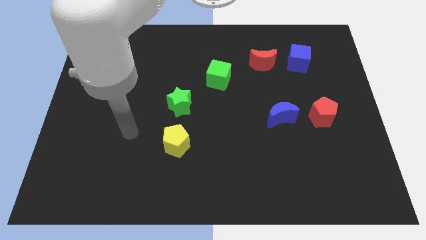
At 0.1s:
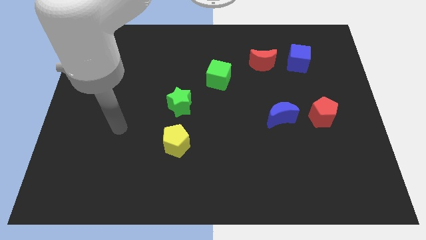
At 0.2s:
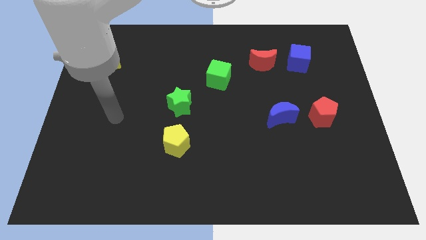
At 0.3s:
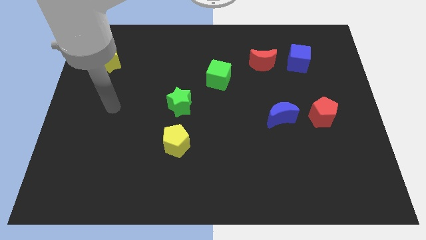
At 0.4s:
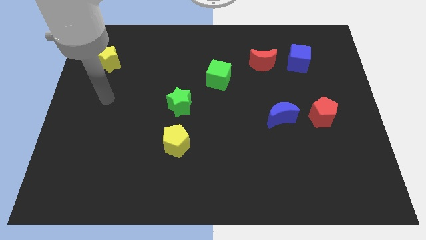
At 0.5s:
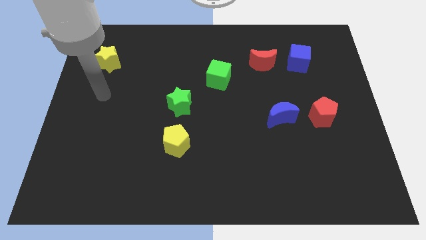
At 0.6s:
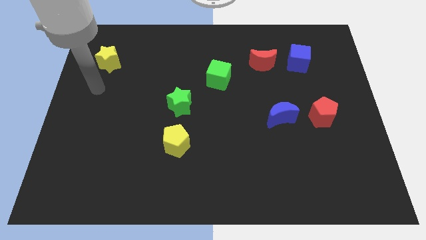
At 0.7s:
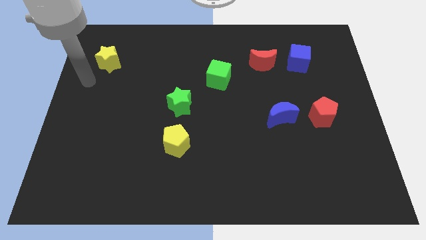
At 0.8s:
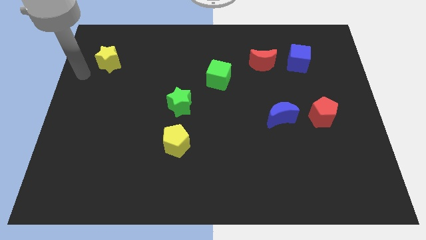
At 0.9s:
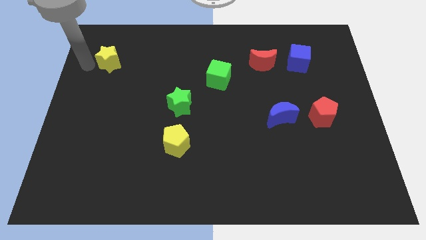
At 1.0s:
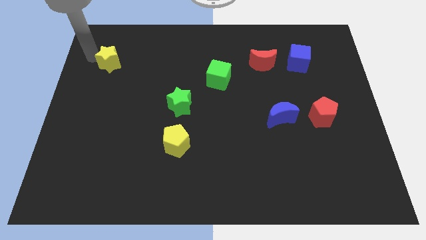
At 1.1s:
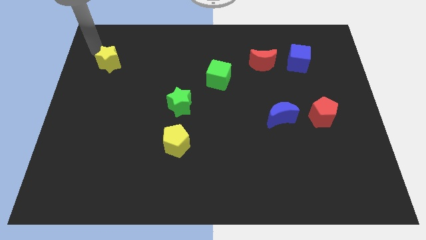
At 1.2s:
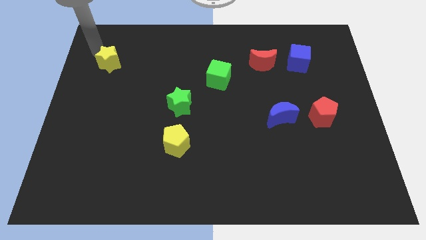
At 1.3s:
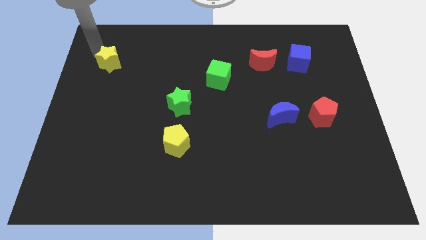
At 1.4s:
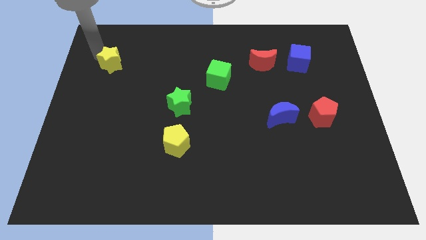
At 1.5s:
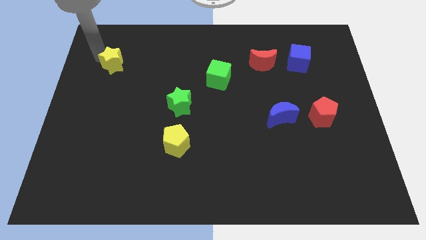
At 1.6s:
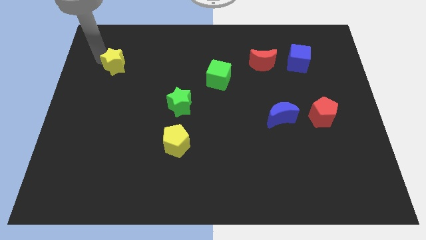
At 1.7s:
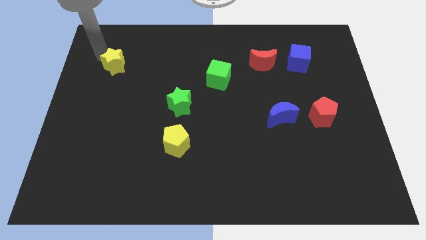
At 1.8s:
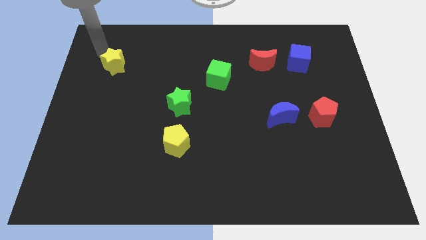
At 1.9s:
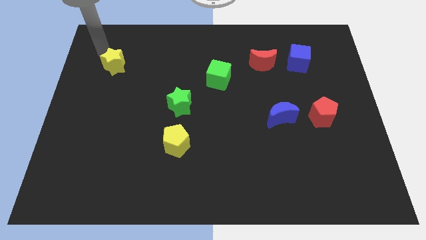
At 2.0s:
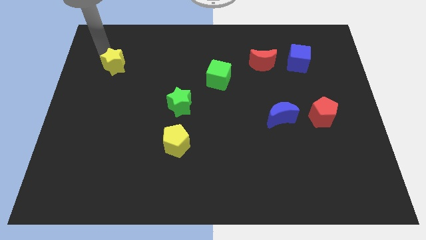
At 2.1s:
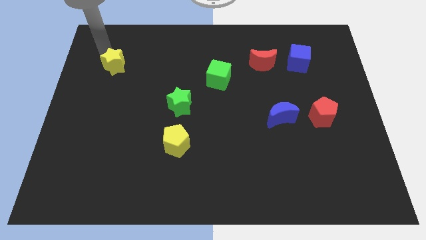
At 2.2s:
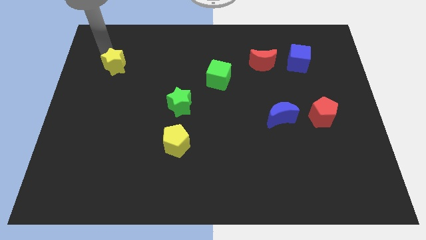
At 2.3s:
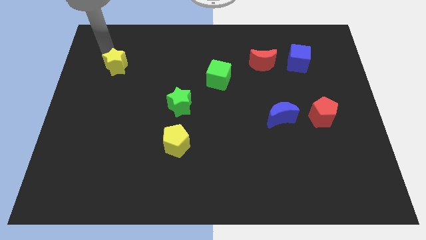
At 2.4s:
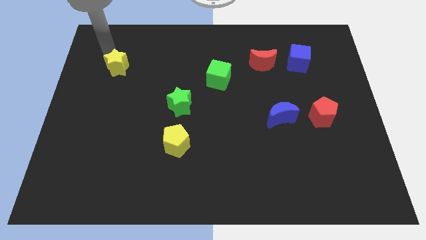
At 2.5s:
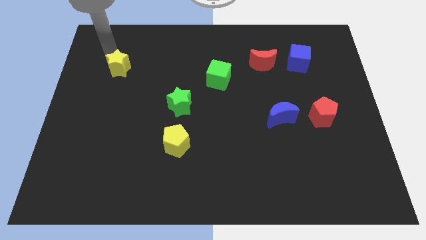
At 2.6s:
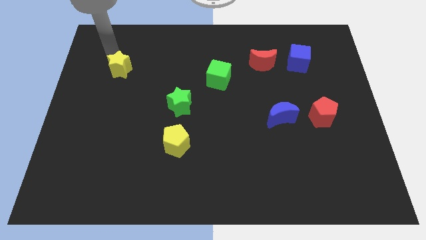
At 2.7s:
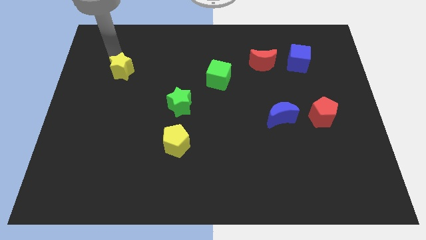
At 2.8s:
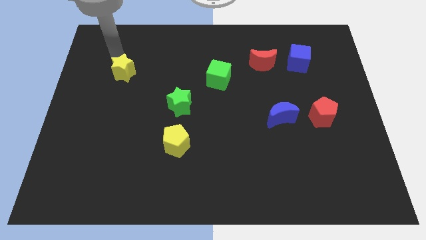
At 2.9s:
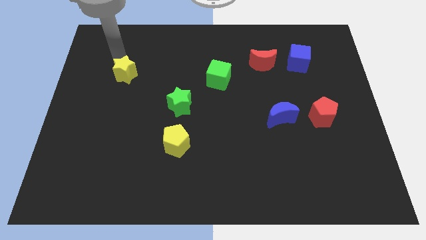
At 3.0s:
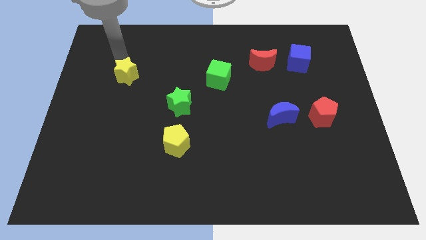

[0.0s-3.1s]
push the yellow star diagonally down and to the right a bit

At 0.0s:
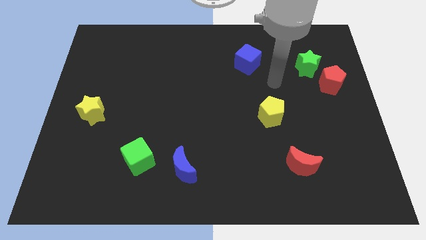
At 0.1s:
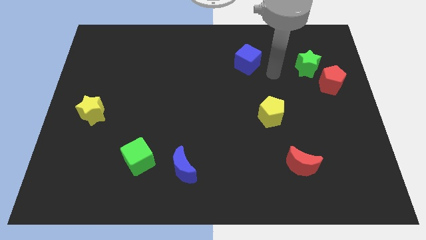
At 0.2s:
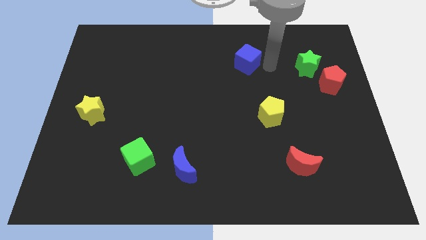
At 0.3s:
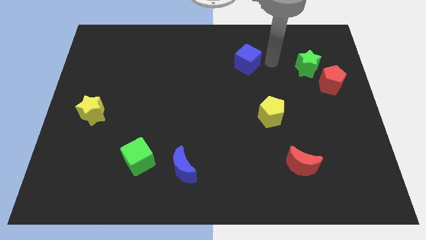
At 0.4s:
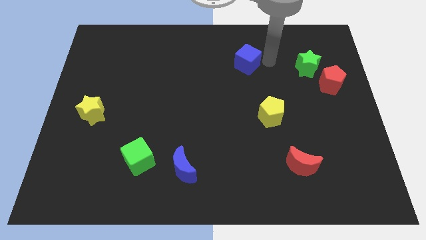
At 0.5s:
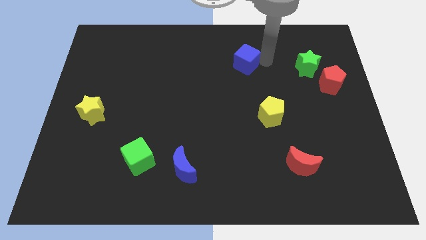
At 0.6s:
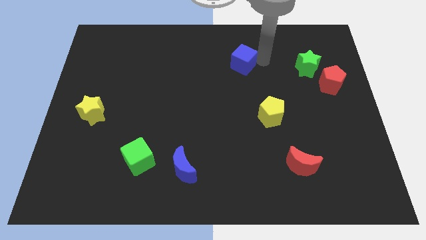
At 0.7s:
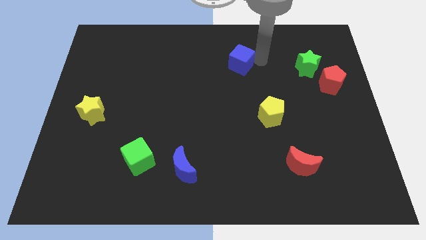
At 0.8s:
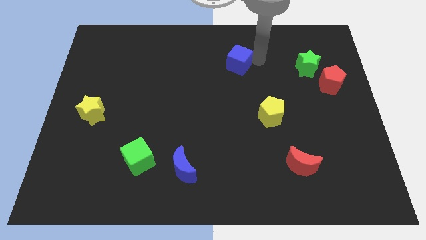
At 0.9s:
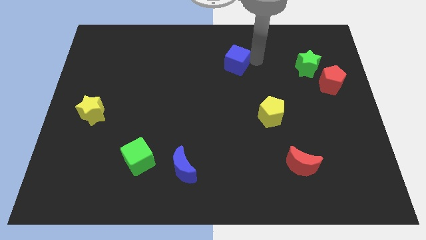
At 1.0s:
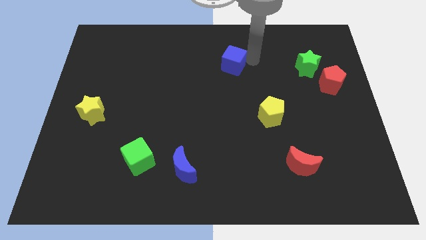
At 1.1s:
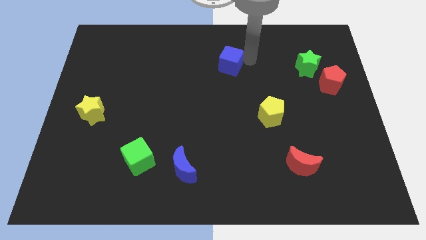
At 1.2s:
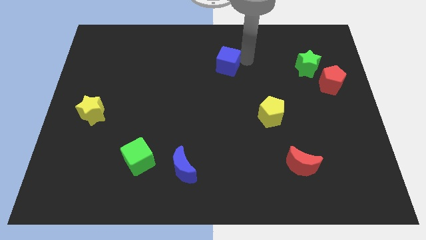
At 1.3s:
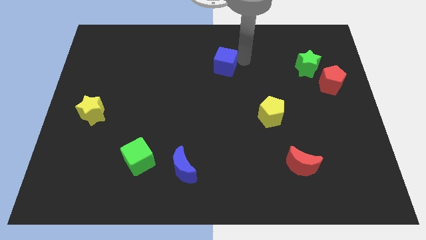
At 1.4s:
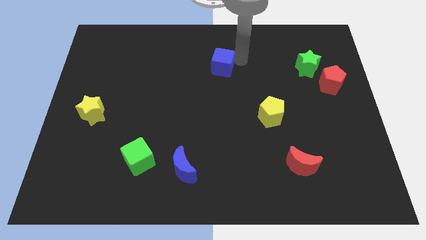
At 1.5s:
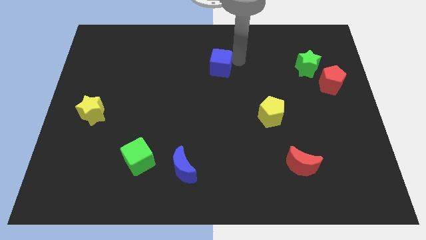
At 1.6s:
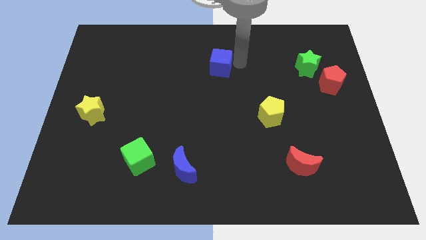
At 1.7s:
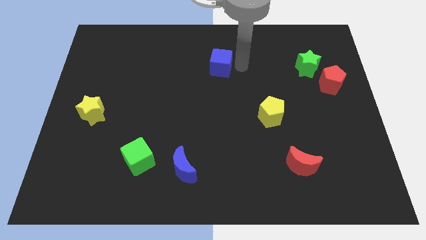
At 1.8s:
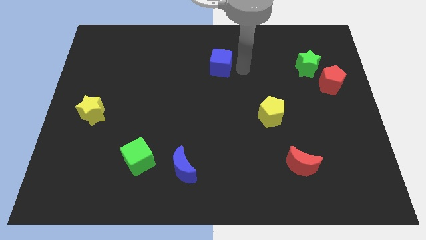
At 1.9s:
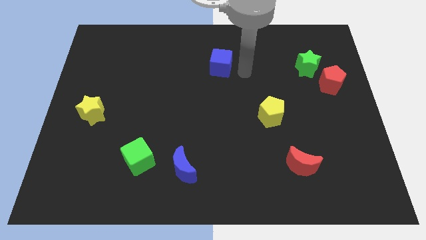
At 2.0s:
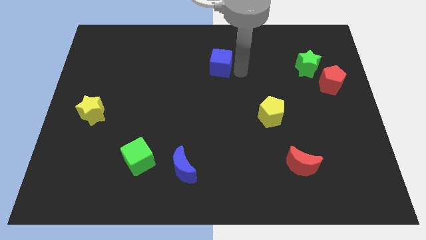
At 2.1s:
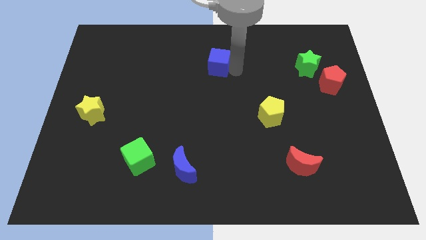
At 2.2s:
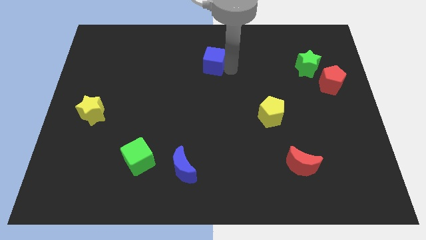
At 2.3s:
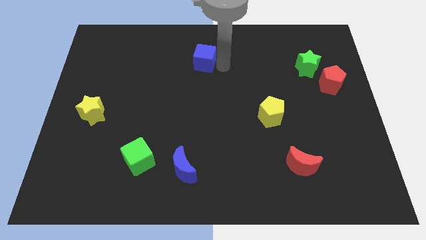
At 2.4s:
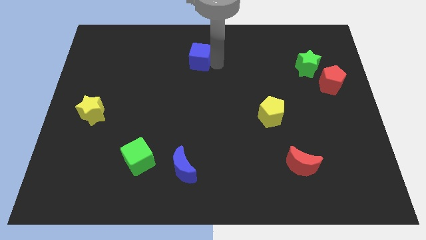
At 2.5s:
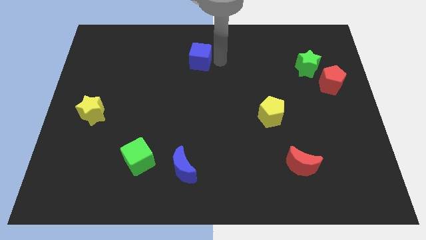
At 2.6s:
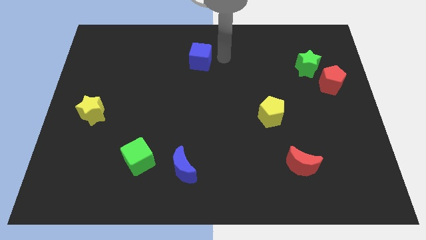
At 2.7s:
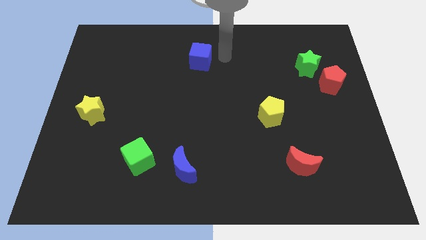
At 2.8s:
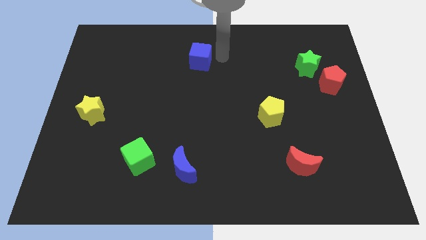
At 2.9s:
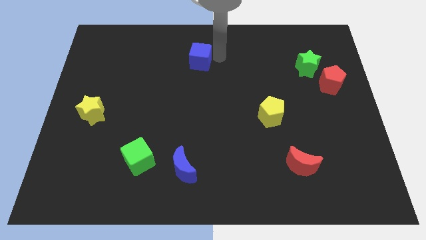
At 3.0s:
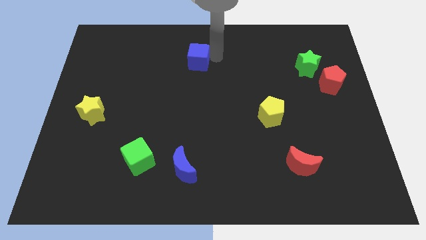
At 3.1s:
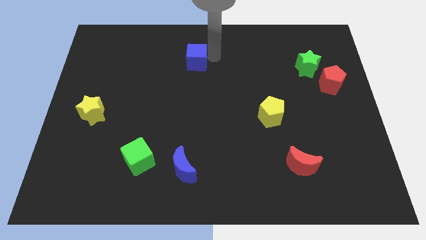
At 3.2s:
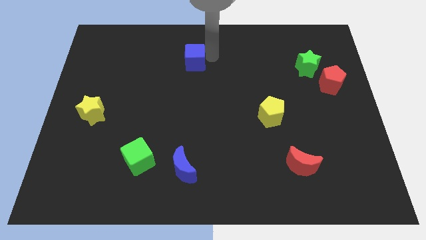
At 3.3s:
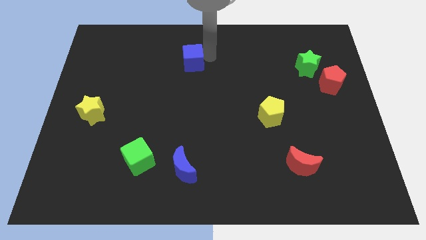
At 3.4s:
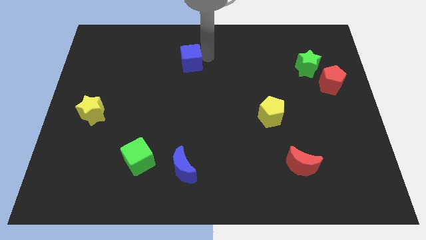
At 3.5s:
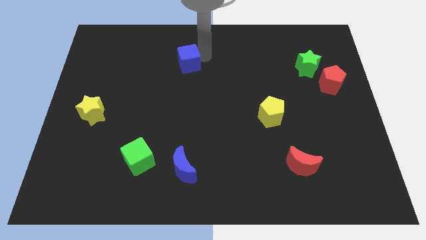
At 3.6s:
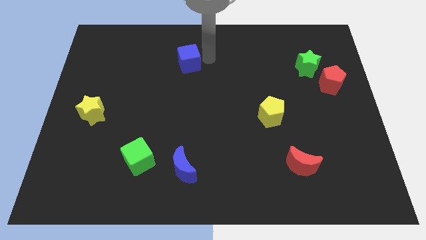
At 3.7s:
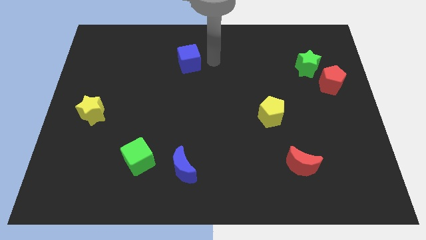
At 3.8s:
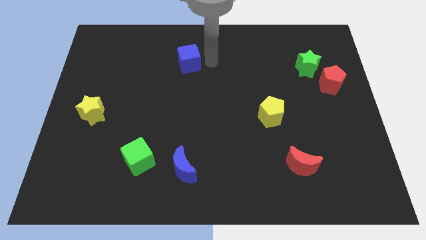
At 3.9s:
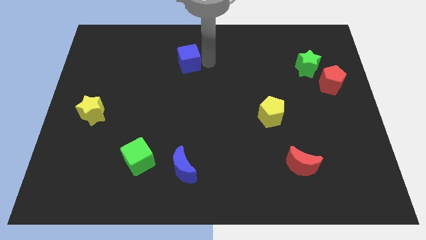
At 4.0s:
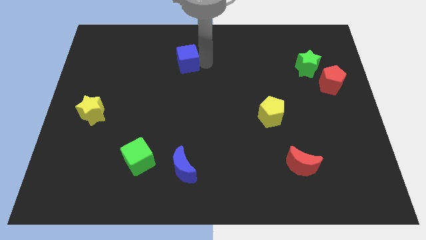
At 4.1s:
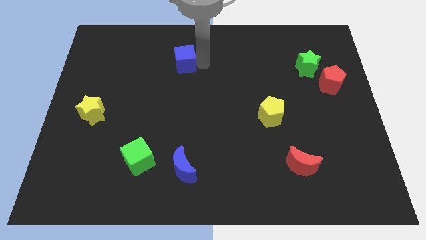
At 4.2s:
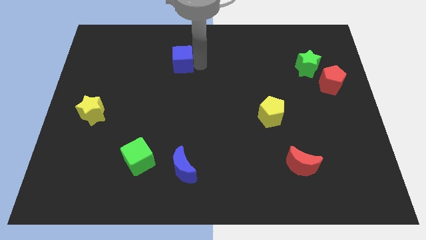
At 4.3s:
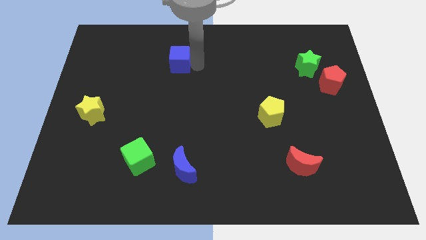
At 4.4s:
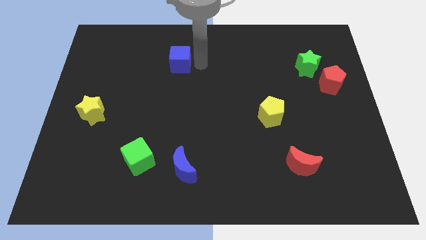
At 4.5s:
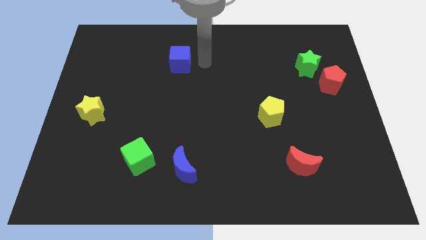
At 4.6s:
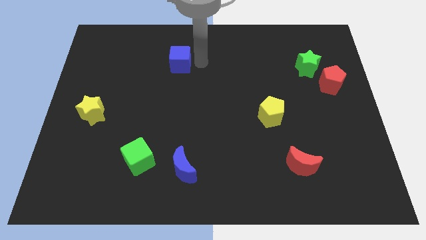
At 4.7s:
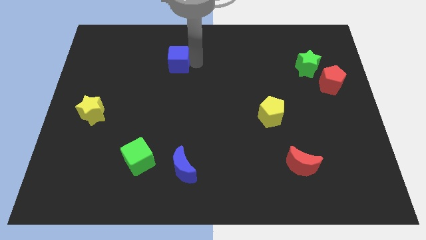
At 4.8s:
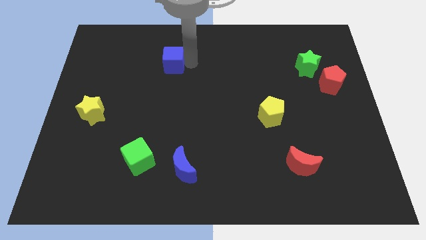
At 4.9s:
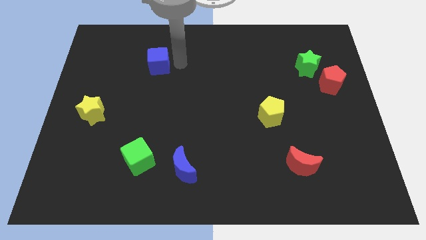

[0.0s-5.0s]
slide the blue cube to the left
